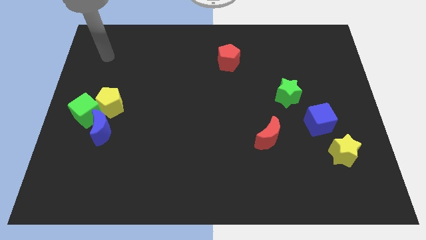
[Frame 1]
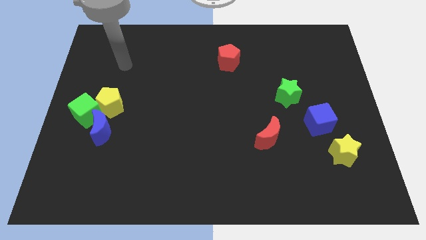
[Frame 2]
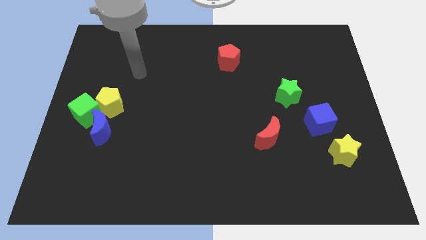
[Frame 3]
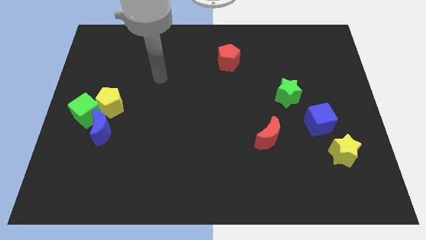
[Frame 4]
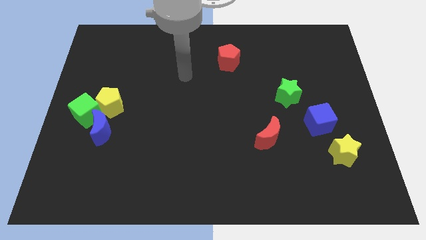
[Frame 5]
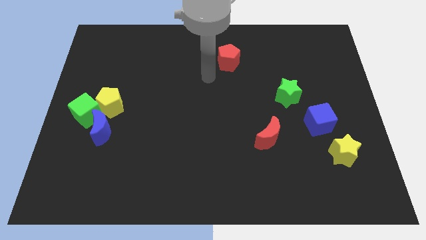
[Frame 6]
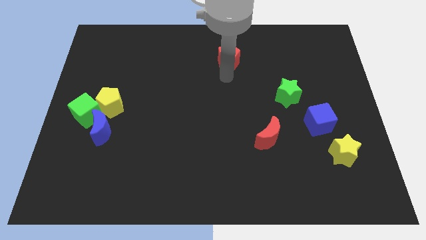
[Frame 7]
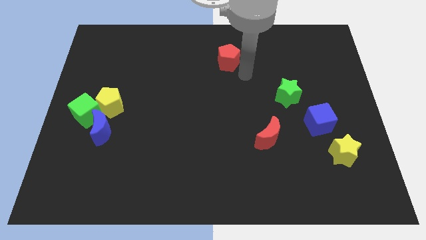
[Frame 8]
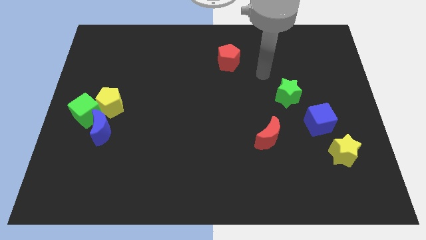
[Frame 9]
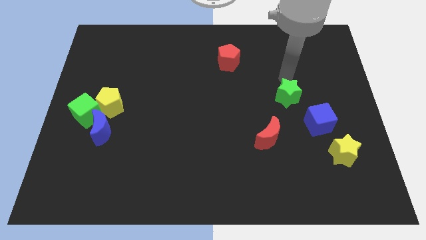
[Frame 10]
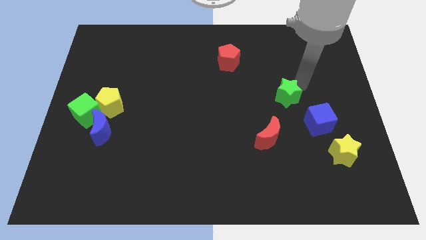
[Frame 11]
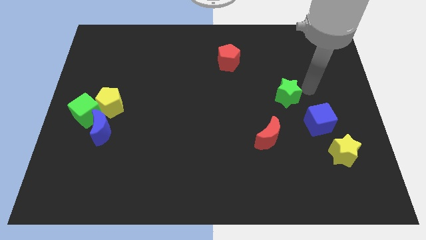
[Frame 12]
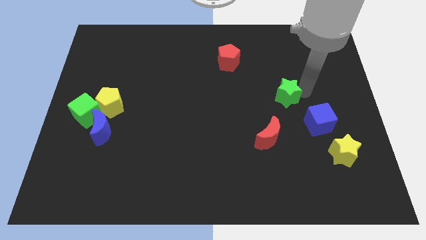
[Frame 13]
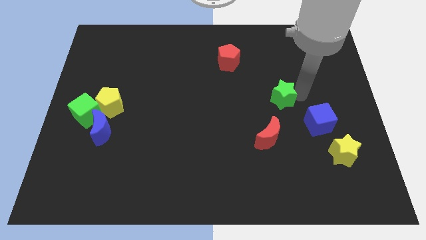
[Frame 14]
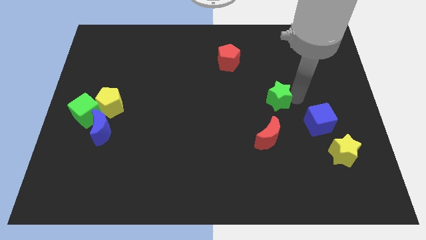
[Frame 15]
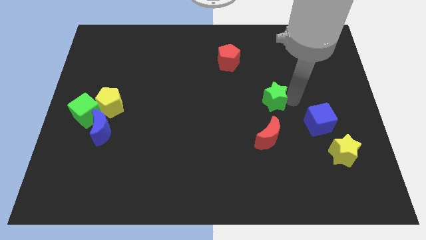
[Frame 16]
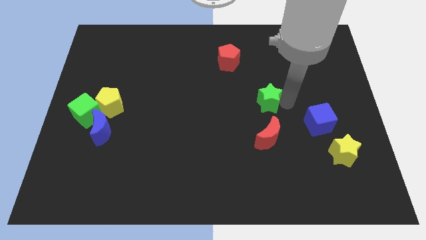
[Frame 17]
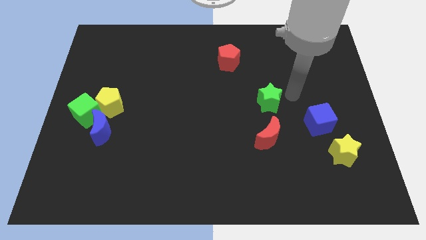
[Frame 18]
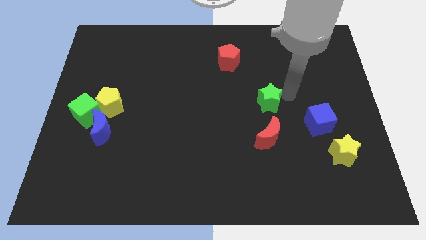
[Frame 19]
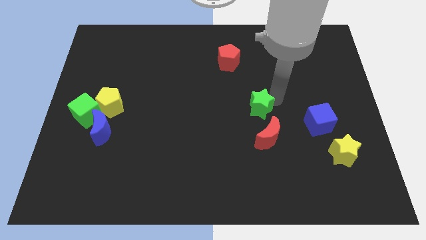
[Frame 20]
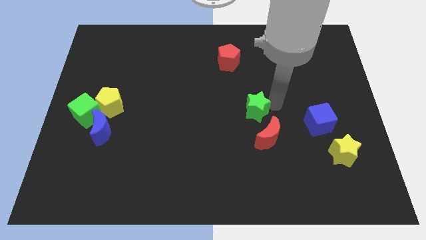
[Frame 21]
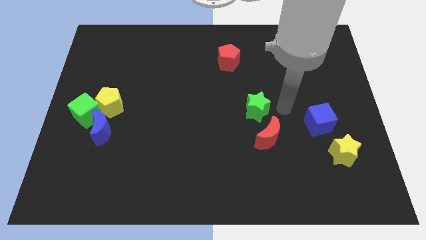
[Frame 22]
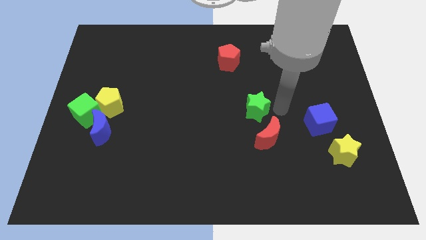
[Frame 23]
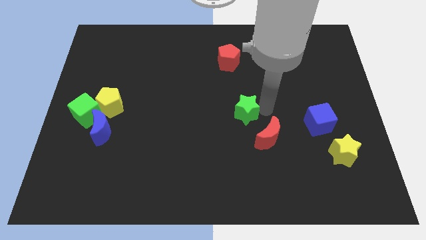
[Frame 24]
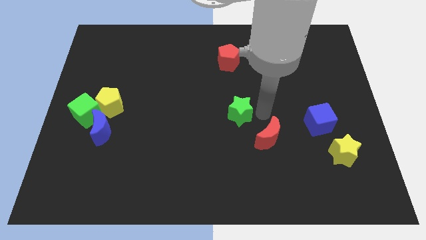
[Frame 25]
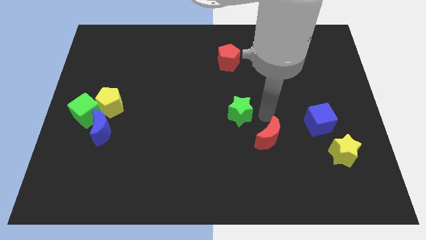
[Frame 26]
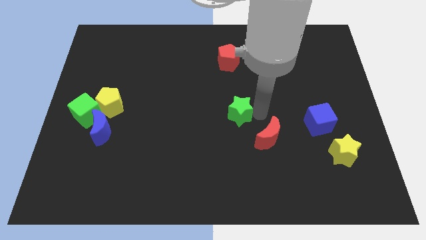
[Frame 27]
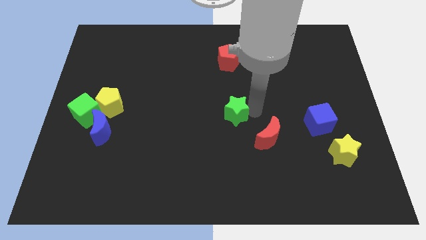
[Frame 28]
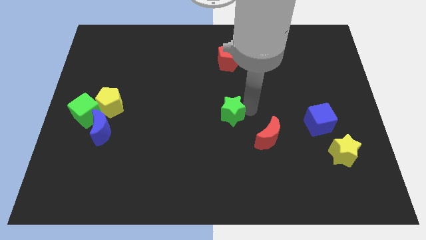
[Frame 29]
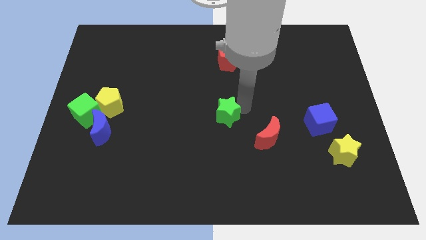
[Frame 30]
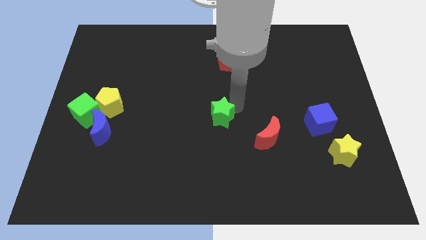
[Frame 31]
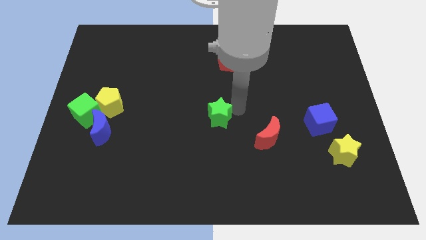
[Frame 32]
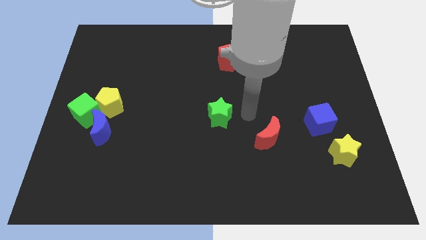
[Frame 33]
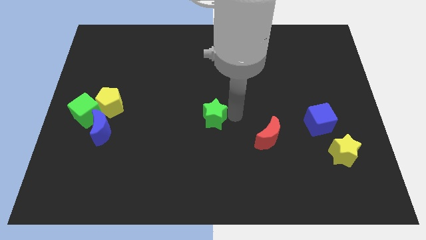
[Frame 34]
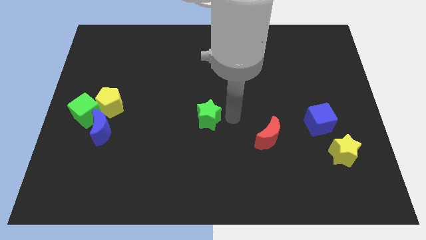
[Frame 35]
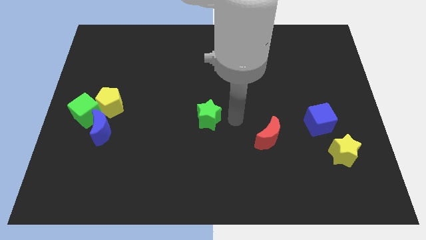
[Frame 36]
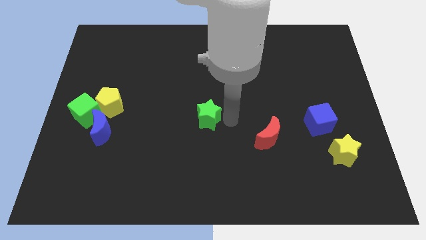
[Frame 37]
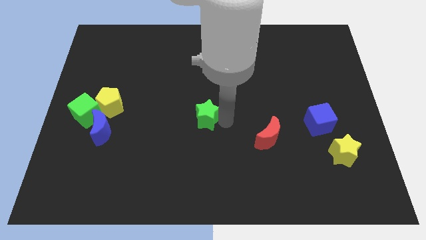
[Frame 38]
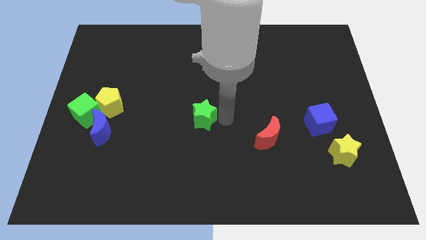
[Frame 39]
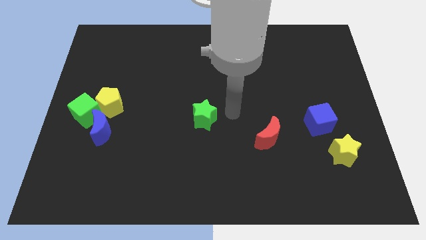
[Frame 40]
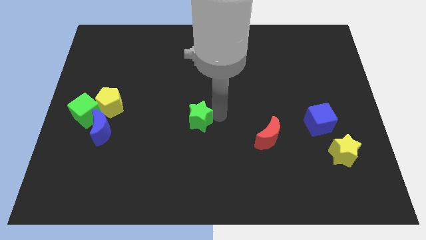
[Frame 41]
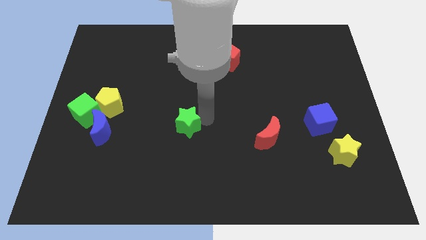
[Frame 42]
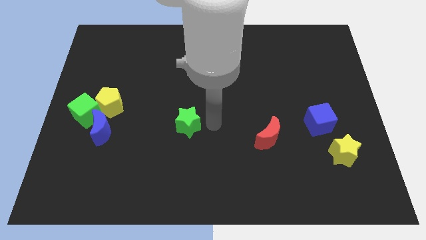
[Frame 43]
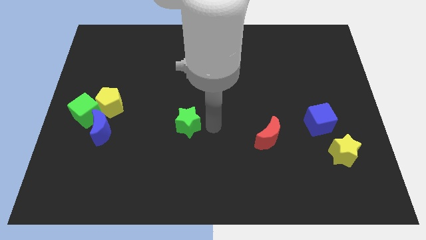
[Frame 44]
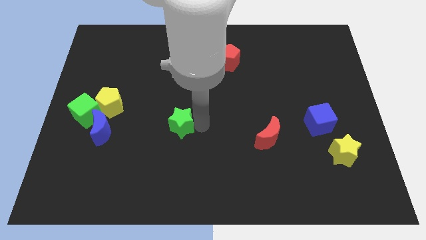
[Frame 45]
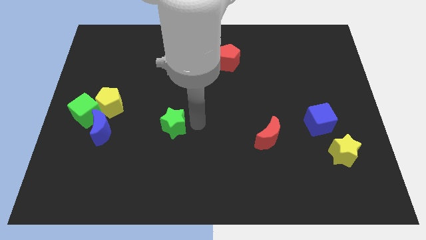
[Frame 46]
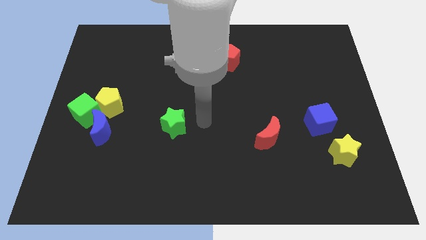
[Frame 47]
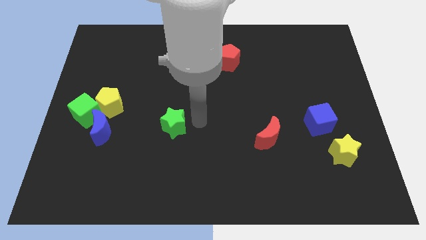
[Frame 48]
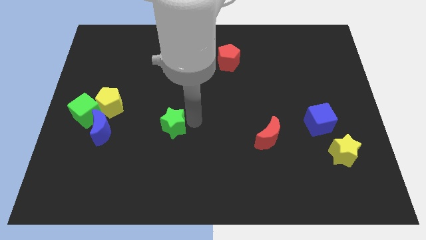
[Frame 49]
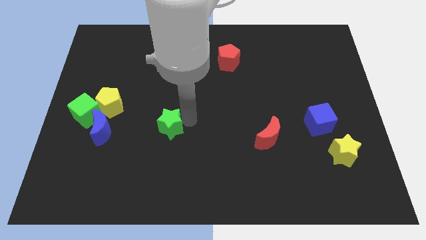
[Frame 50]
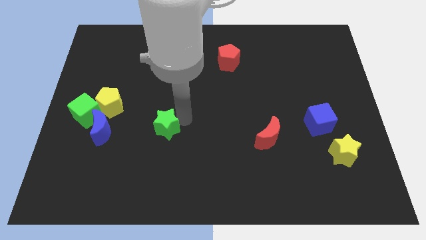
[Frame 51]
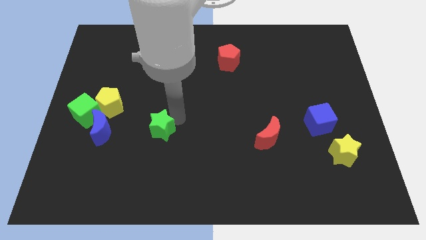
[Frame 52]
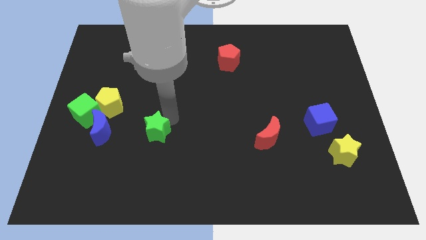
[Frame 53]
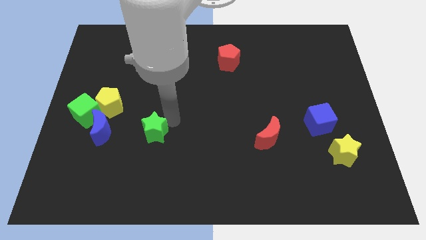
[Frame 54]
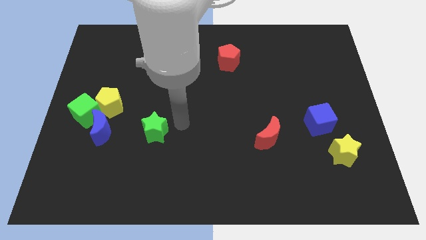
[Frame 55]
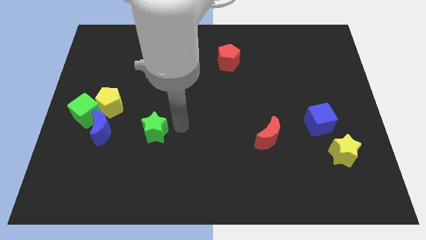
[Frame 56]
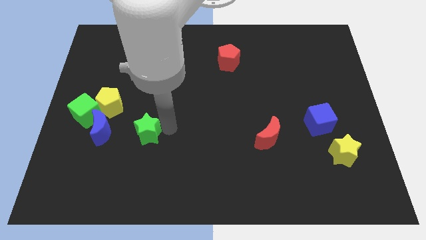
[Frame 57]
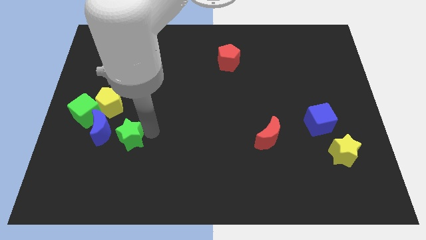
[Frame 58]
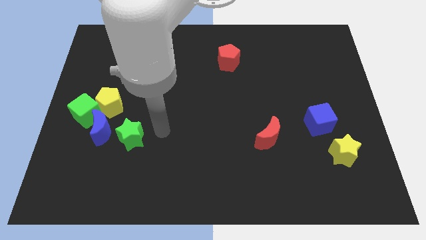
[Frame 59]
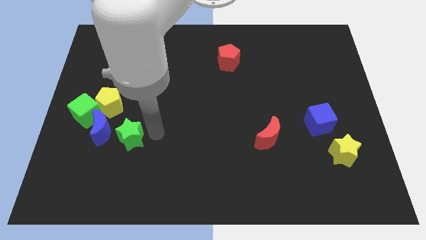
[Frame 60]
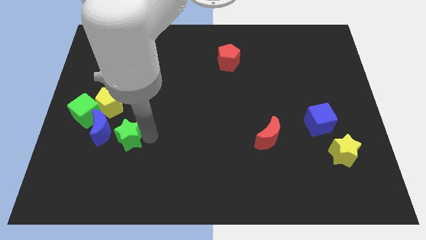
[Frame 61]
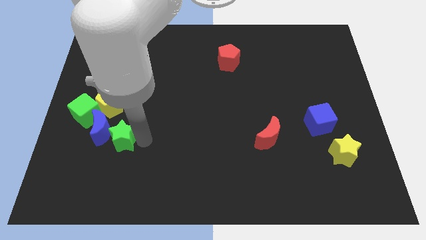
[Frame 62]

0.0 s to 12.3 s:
slide the green star to the bottom of the yellow pentagon

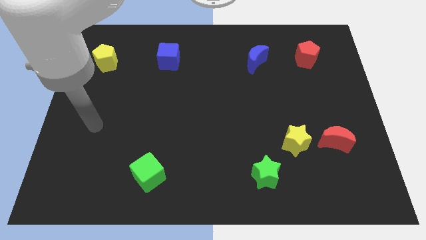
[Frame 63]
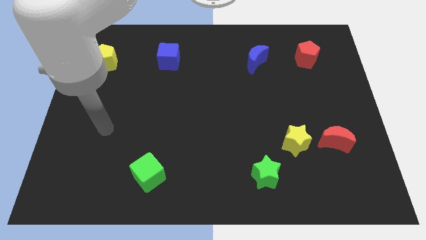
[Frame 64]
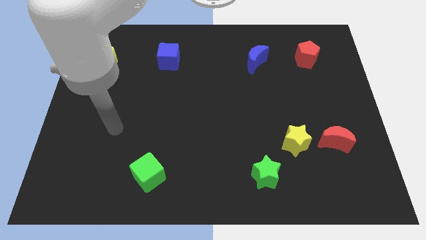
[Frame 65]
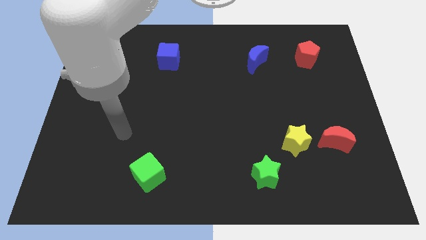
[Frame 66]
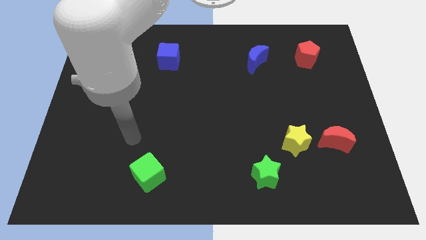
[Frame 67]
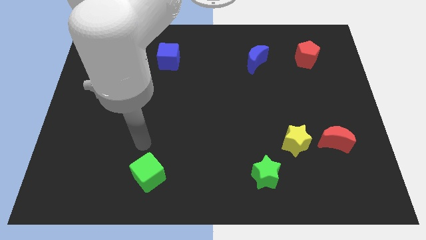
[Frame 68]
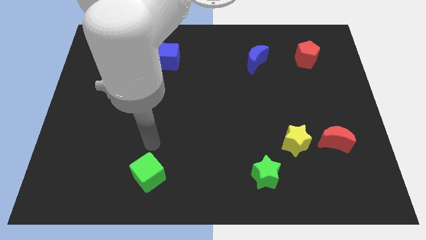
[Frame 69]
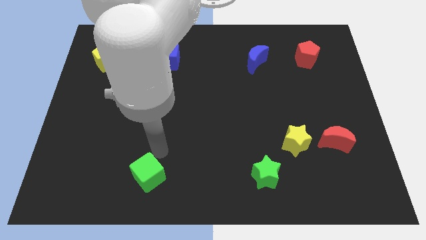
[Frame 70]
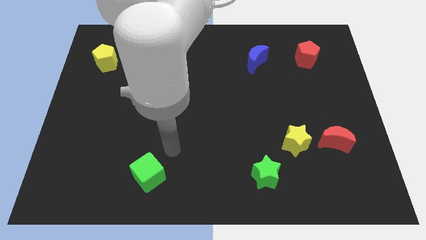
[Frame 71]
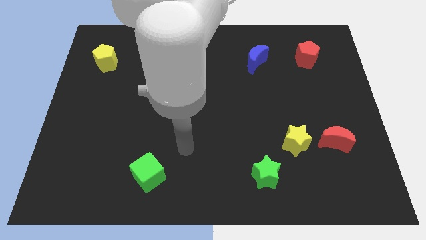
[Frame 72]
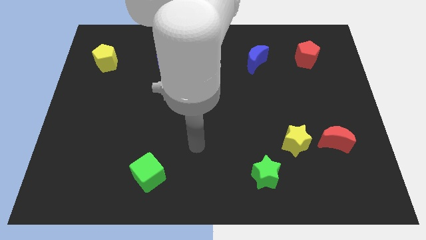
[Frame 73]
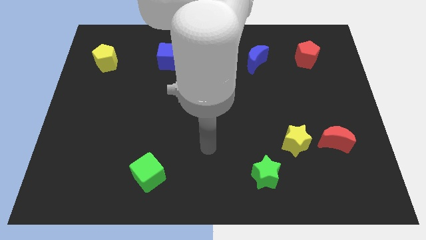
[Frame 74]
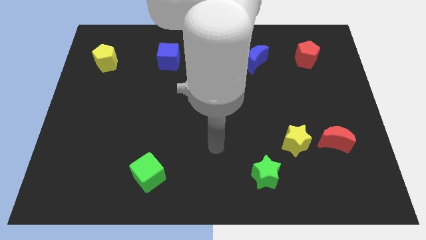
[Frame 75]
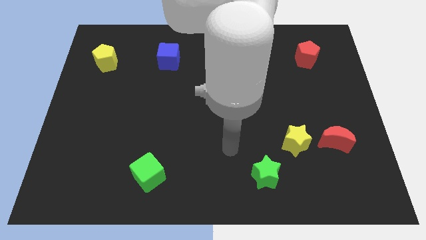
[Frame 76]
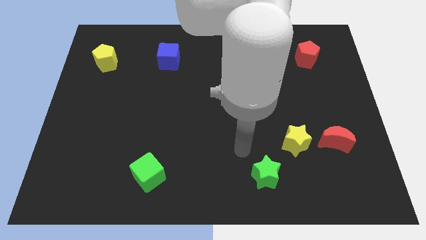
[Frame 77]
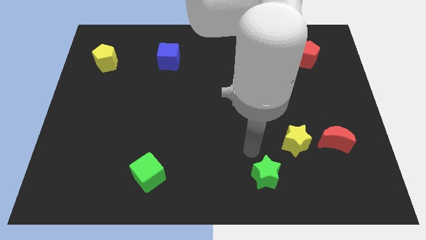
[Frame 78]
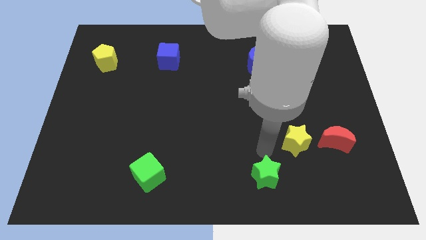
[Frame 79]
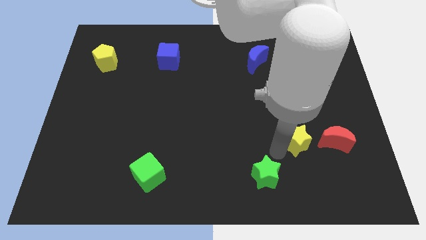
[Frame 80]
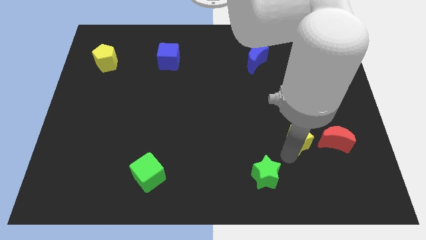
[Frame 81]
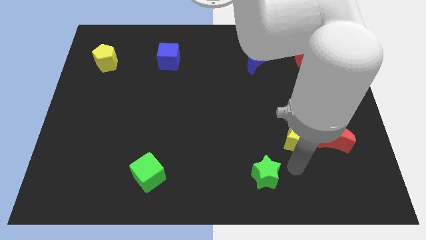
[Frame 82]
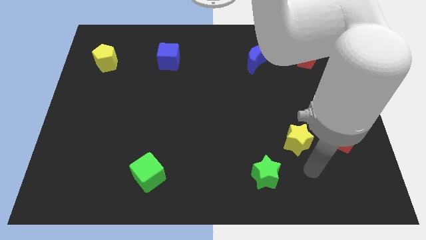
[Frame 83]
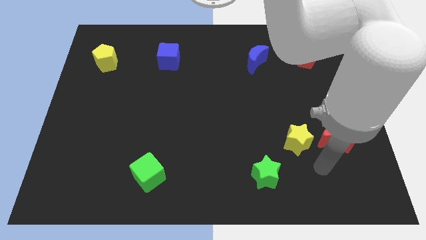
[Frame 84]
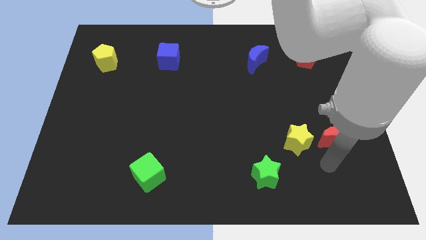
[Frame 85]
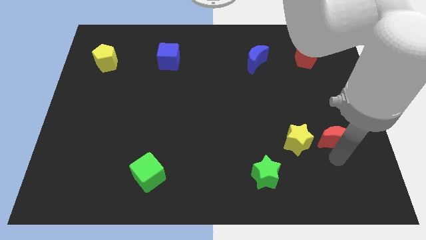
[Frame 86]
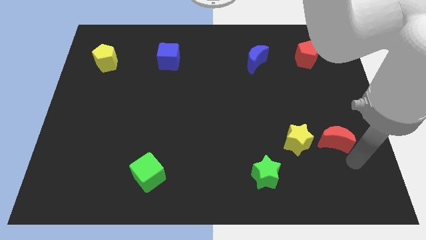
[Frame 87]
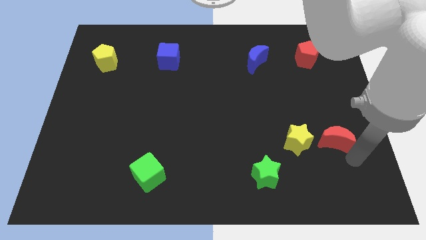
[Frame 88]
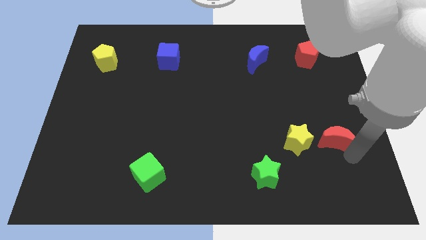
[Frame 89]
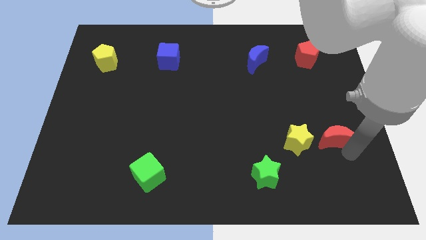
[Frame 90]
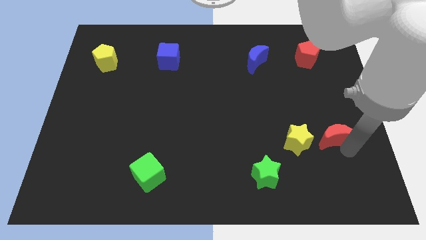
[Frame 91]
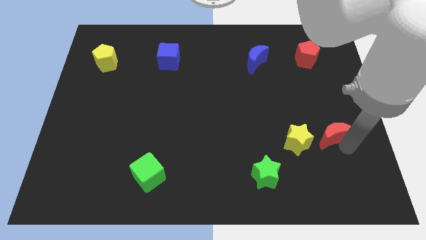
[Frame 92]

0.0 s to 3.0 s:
put the red moon diagonally up and to the right of the yellow star
